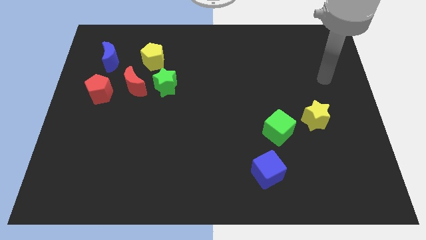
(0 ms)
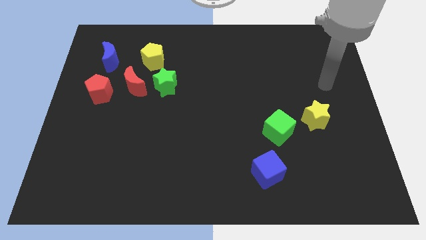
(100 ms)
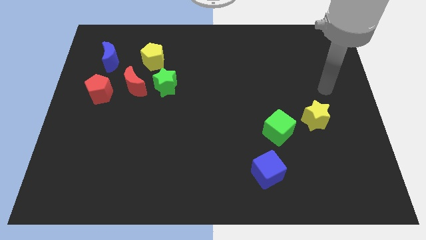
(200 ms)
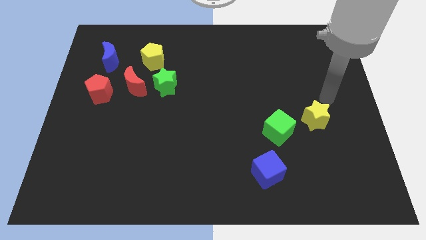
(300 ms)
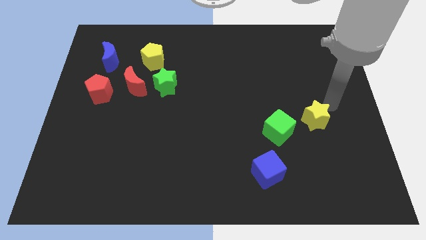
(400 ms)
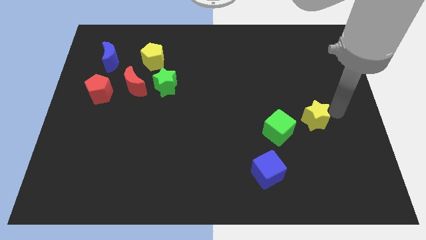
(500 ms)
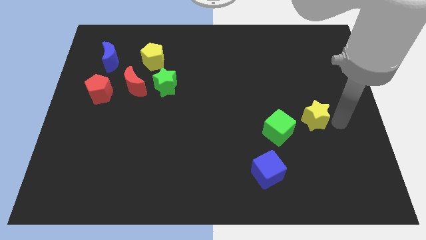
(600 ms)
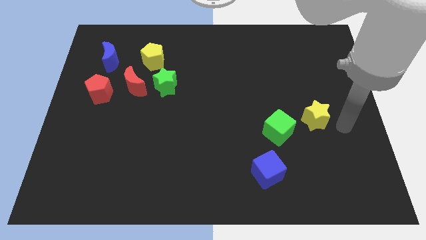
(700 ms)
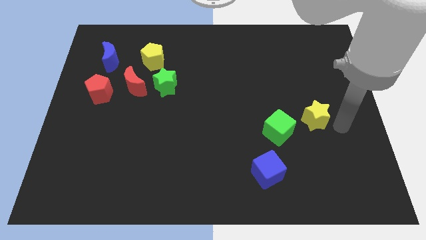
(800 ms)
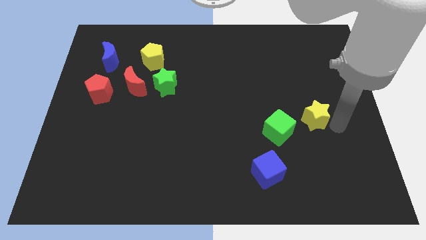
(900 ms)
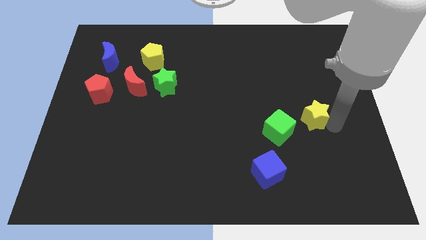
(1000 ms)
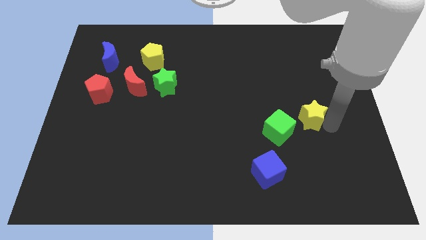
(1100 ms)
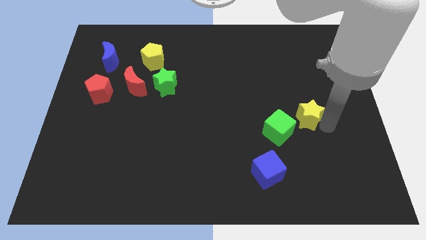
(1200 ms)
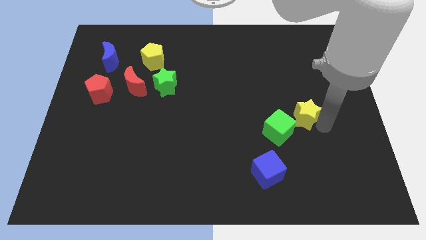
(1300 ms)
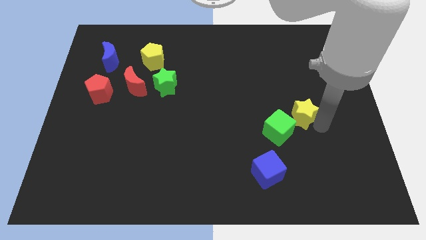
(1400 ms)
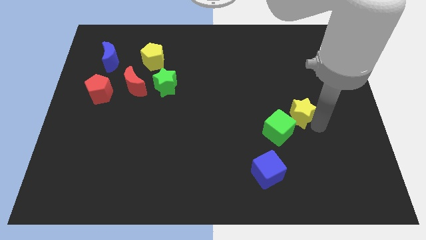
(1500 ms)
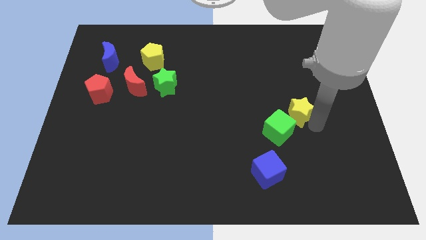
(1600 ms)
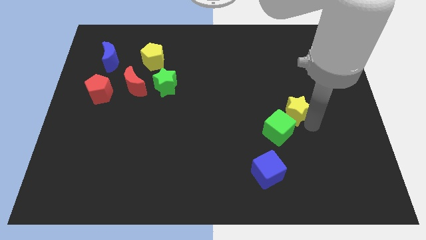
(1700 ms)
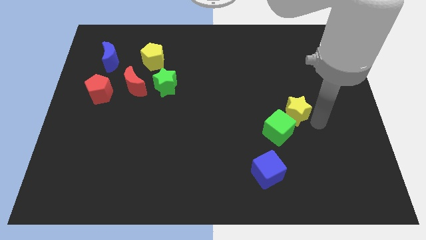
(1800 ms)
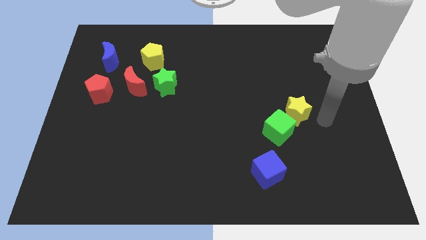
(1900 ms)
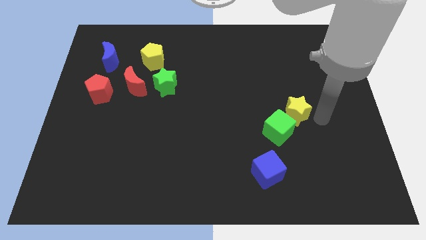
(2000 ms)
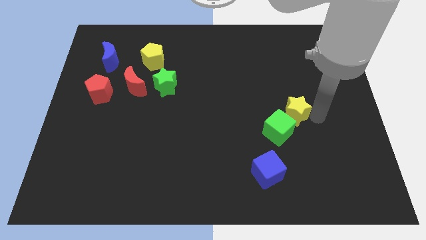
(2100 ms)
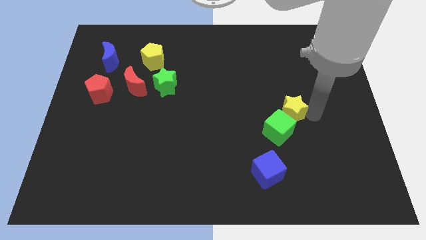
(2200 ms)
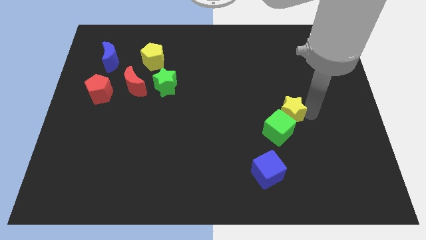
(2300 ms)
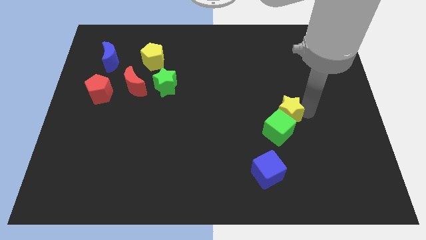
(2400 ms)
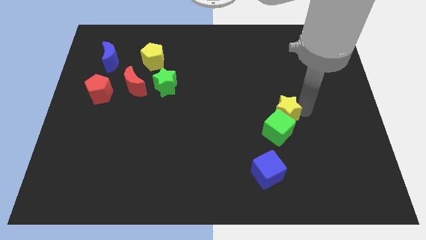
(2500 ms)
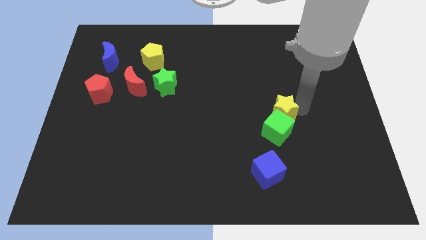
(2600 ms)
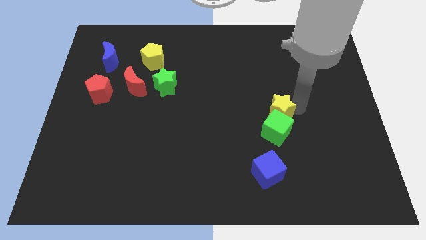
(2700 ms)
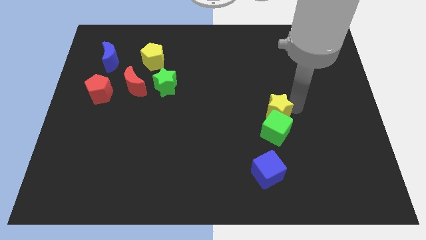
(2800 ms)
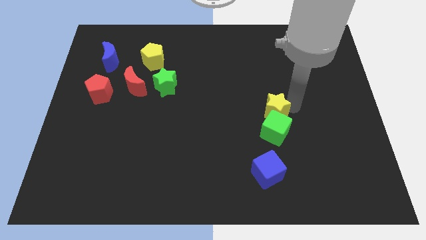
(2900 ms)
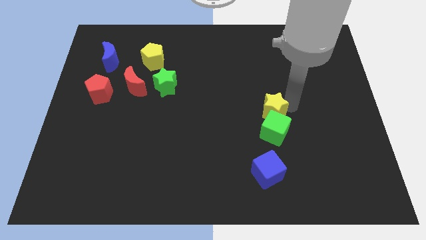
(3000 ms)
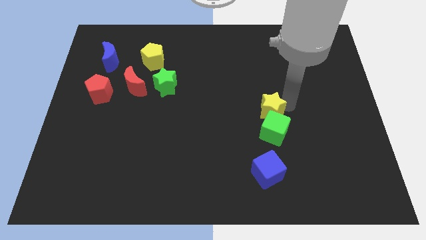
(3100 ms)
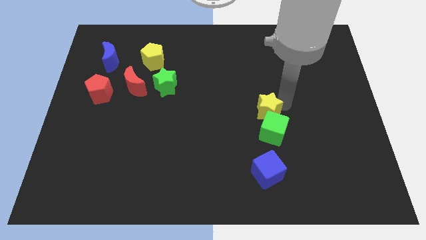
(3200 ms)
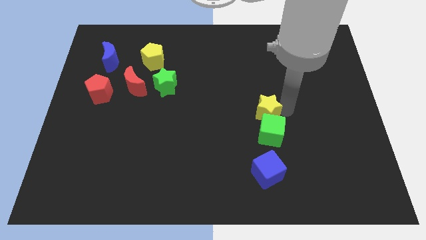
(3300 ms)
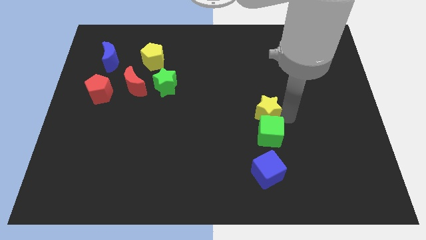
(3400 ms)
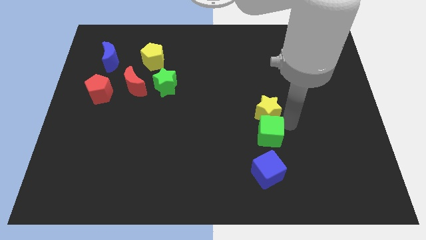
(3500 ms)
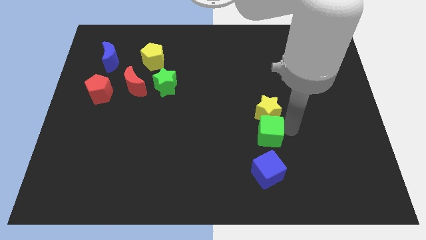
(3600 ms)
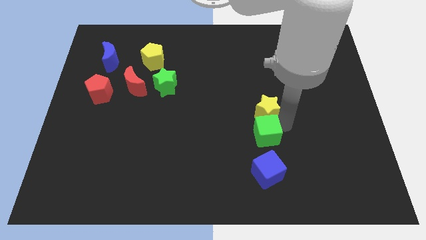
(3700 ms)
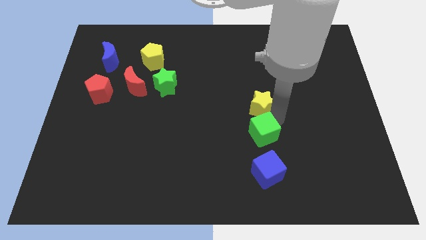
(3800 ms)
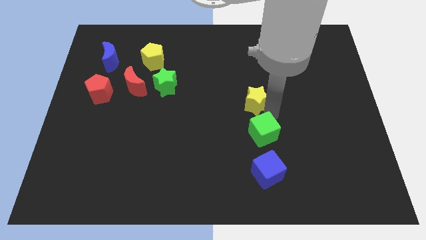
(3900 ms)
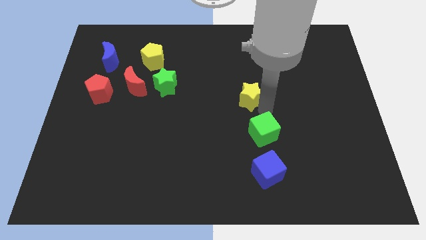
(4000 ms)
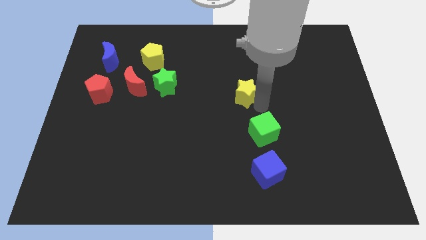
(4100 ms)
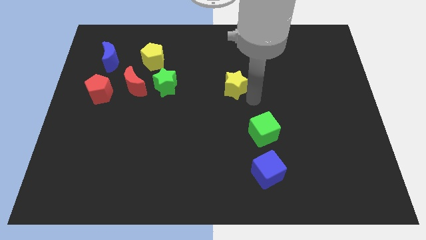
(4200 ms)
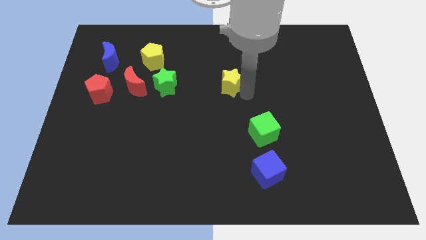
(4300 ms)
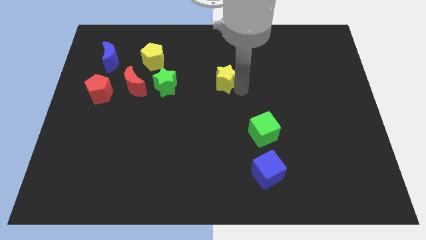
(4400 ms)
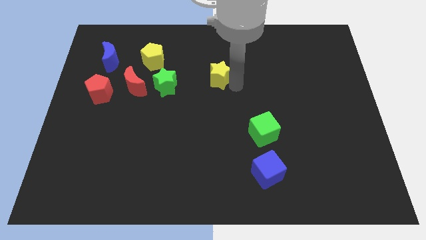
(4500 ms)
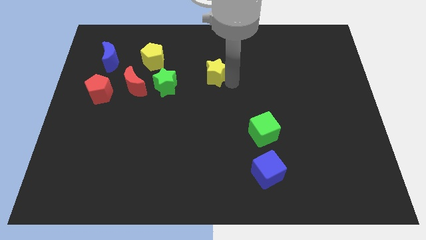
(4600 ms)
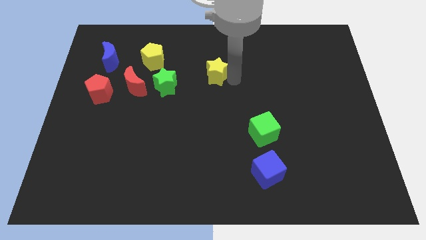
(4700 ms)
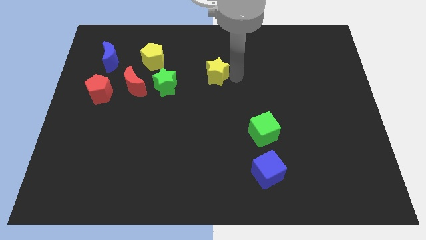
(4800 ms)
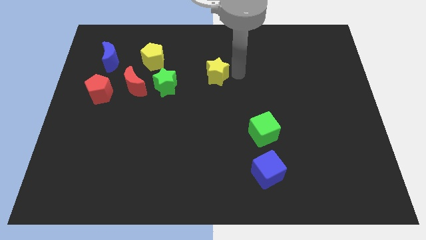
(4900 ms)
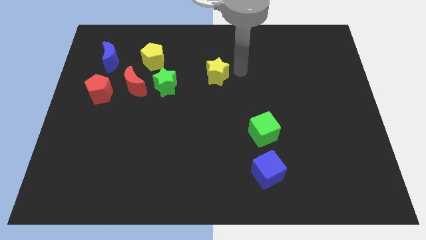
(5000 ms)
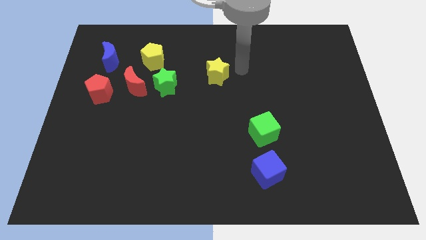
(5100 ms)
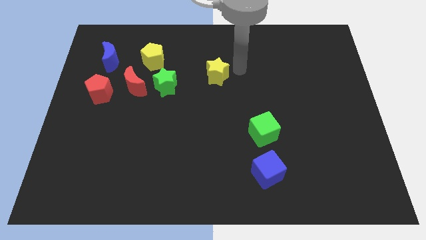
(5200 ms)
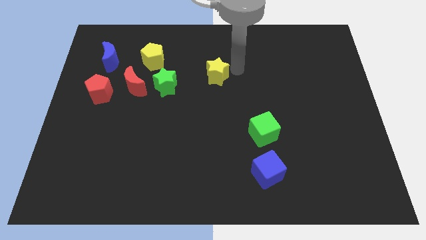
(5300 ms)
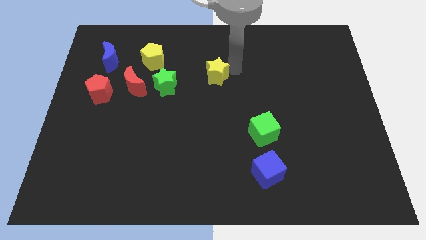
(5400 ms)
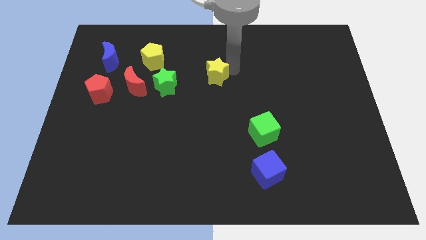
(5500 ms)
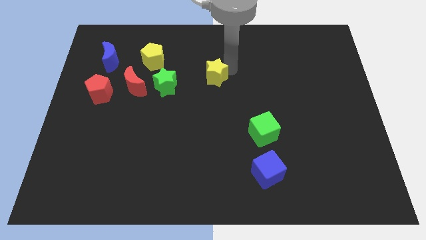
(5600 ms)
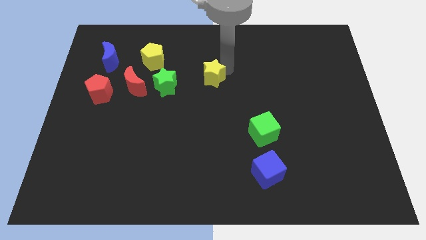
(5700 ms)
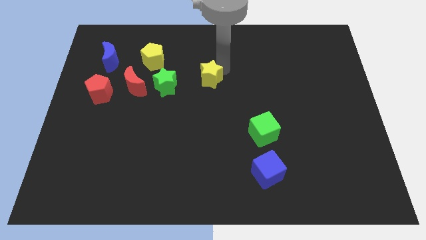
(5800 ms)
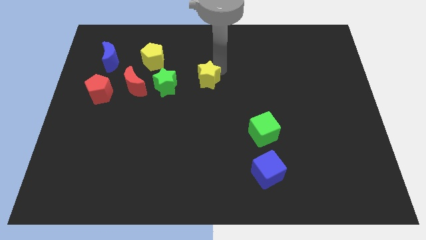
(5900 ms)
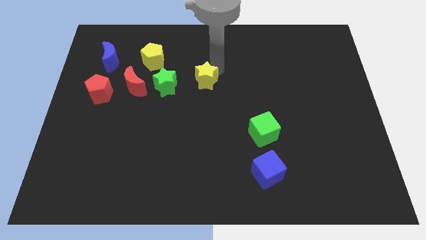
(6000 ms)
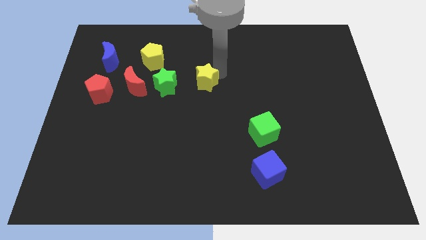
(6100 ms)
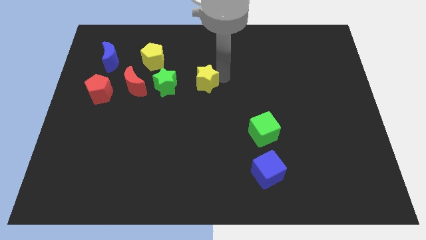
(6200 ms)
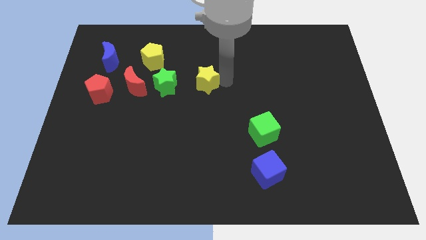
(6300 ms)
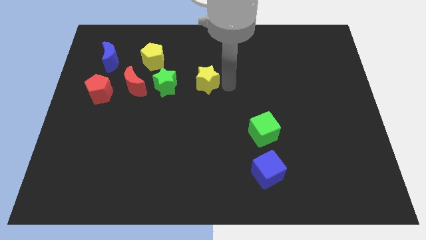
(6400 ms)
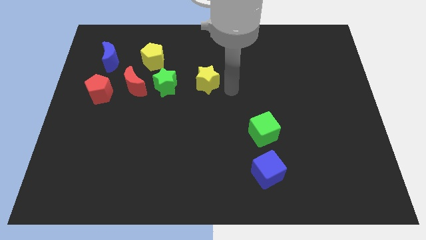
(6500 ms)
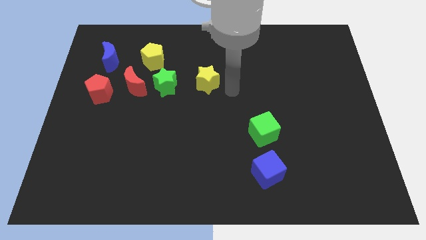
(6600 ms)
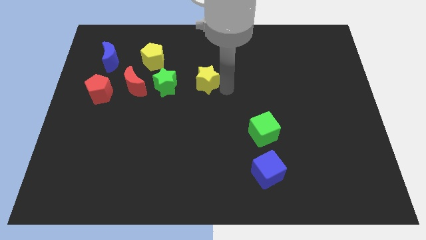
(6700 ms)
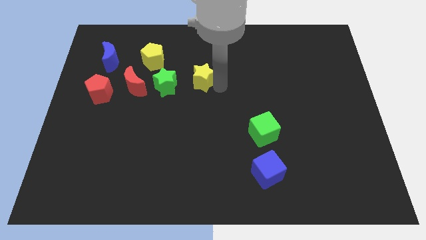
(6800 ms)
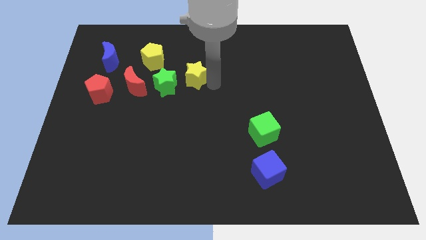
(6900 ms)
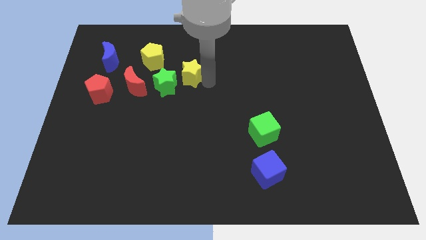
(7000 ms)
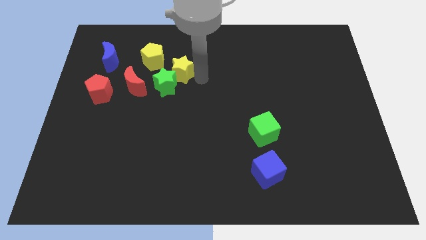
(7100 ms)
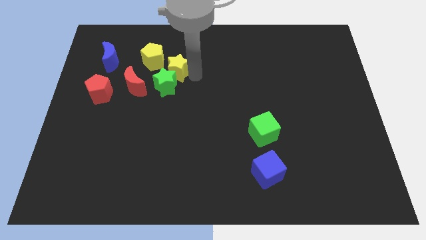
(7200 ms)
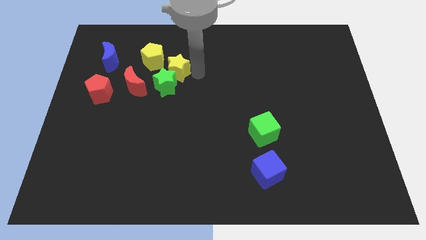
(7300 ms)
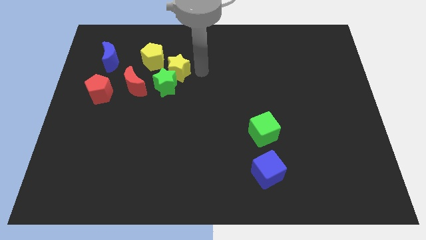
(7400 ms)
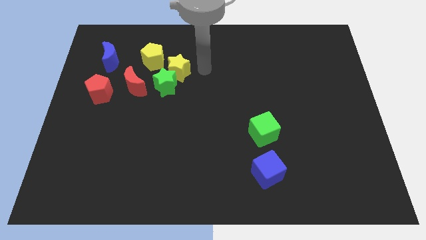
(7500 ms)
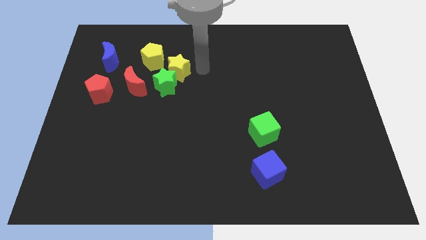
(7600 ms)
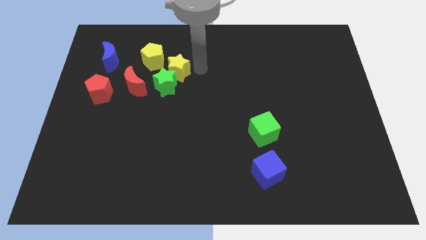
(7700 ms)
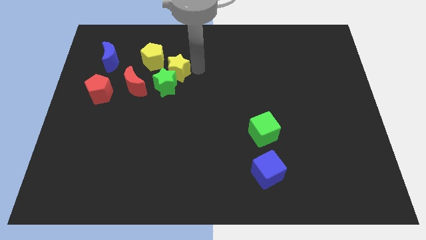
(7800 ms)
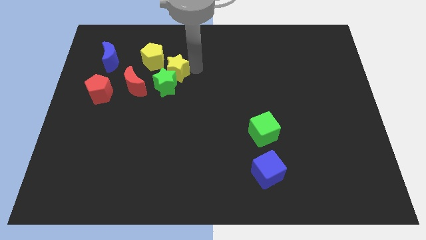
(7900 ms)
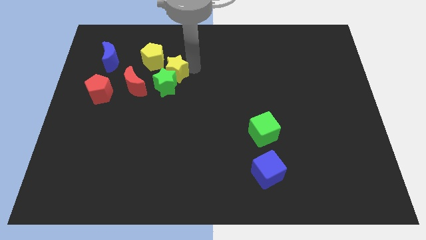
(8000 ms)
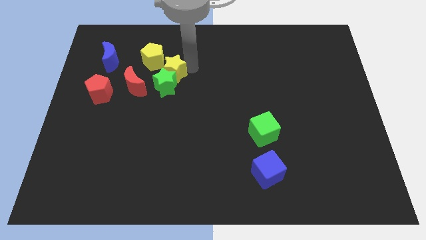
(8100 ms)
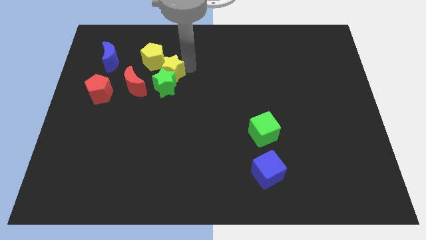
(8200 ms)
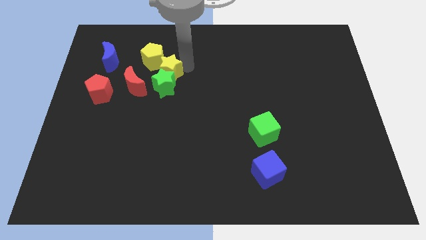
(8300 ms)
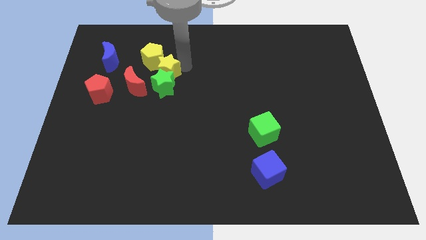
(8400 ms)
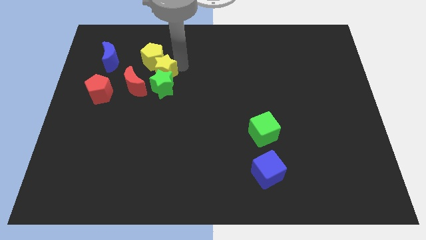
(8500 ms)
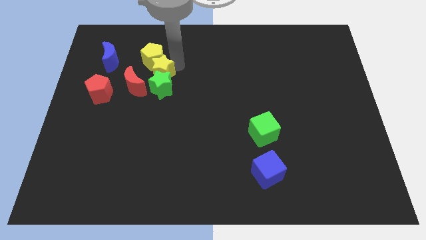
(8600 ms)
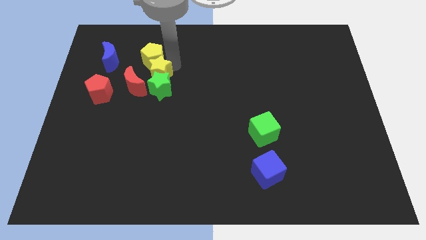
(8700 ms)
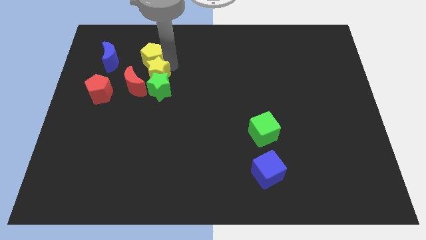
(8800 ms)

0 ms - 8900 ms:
slide the yellow star to the bottom left side of the yellow pentagon
